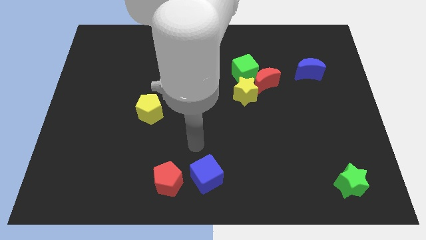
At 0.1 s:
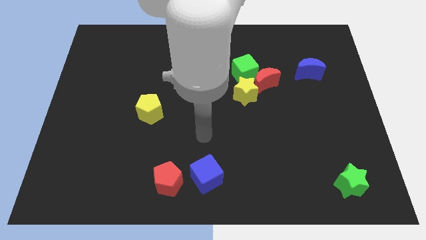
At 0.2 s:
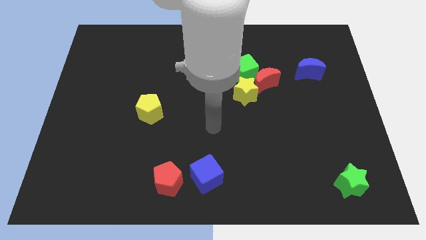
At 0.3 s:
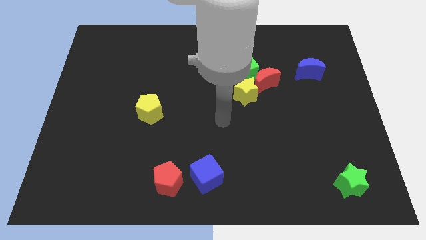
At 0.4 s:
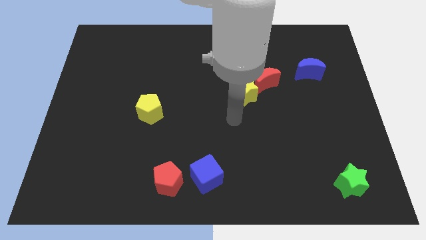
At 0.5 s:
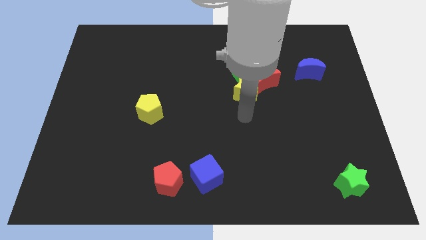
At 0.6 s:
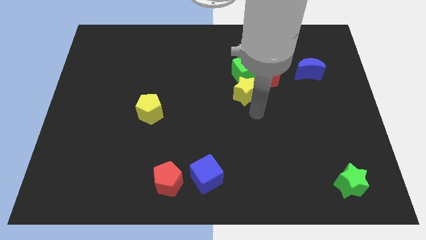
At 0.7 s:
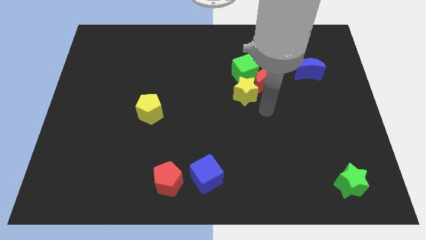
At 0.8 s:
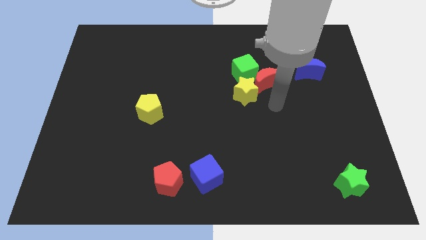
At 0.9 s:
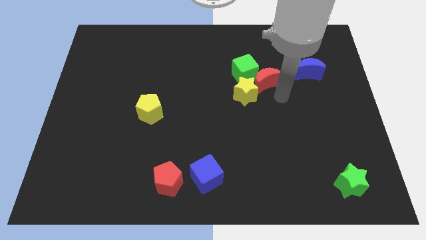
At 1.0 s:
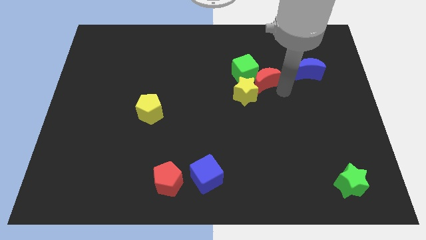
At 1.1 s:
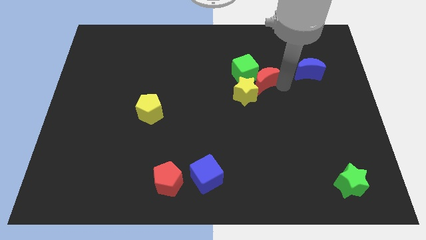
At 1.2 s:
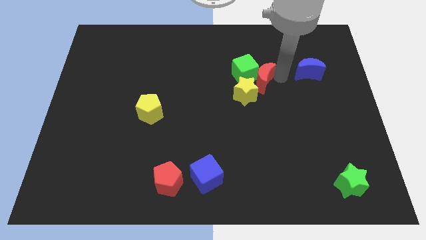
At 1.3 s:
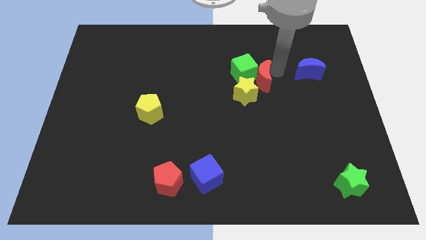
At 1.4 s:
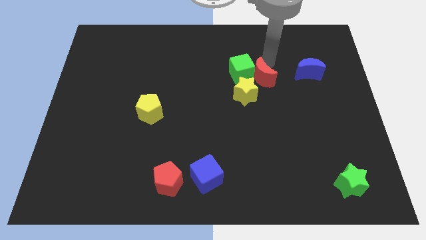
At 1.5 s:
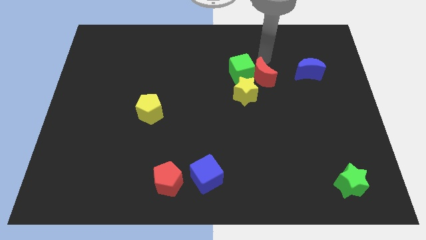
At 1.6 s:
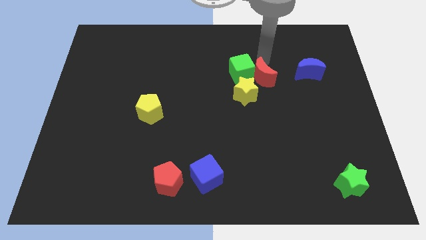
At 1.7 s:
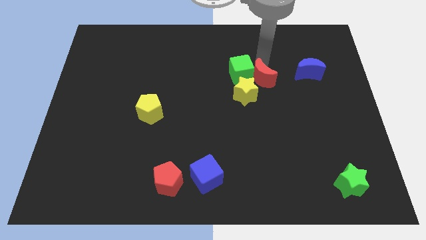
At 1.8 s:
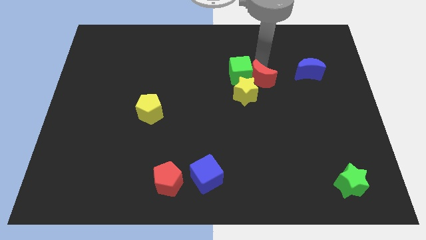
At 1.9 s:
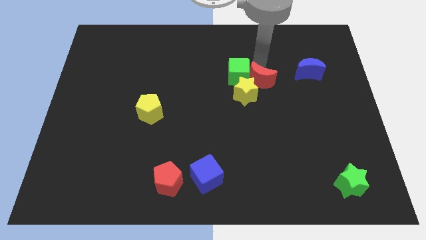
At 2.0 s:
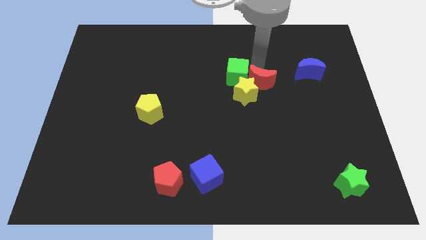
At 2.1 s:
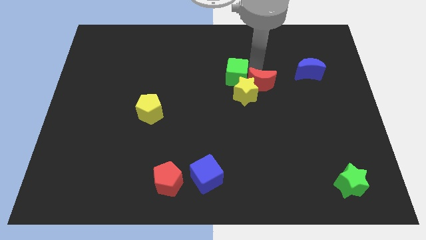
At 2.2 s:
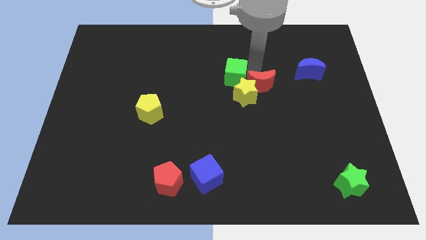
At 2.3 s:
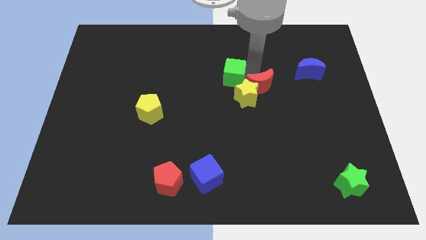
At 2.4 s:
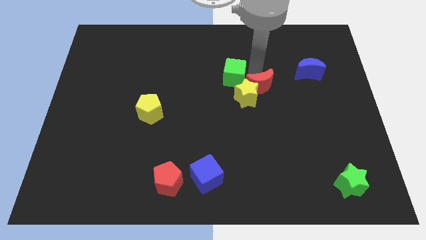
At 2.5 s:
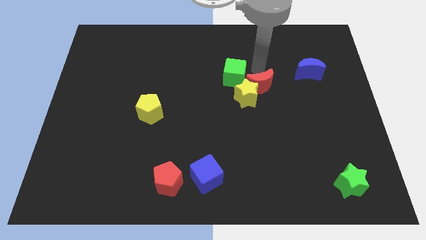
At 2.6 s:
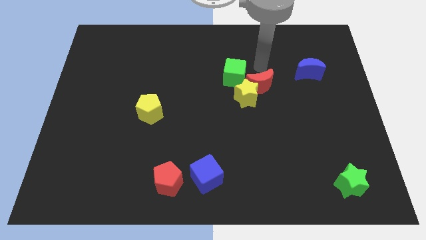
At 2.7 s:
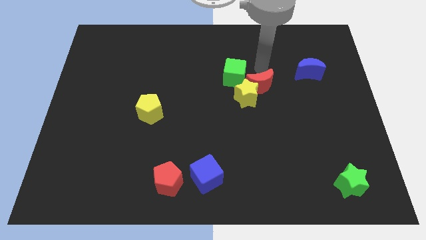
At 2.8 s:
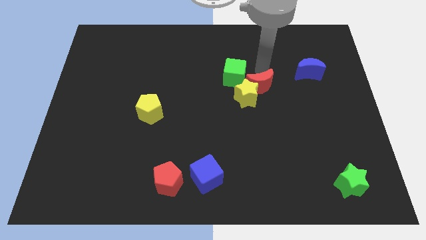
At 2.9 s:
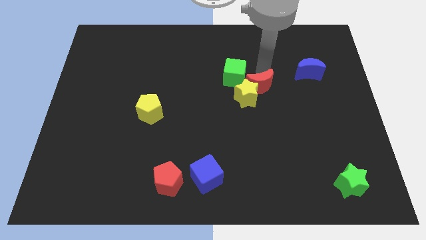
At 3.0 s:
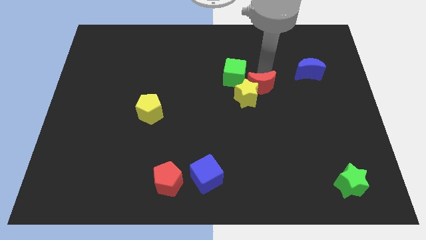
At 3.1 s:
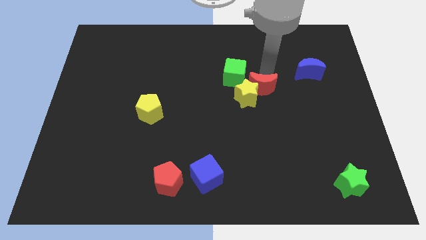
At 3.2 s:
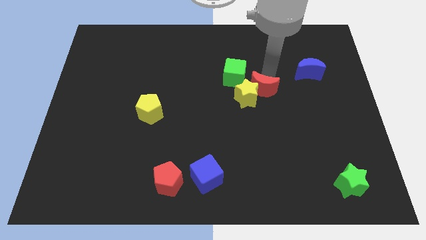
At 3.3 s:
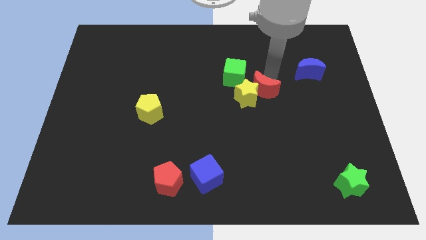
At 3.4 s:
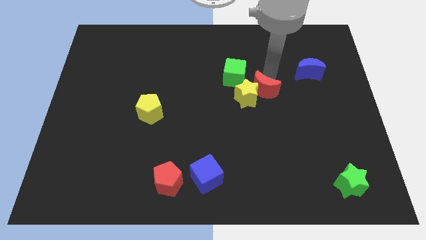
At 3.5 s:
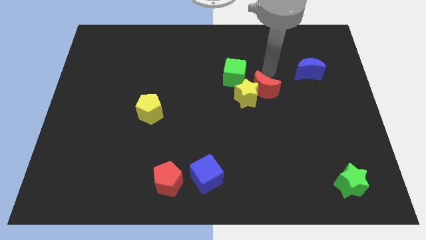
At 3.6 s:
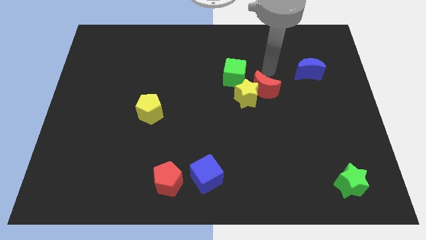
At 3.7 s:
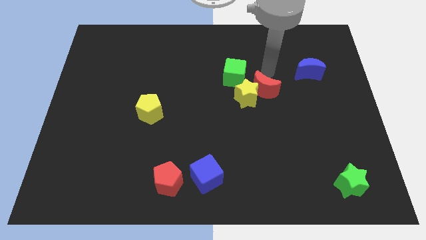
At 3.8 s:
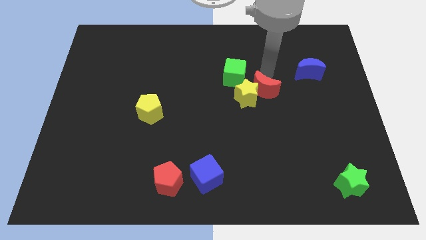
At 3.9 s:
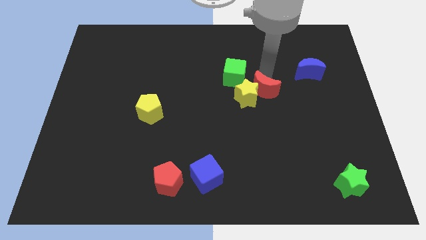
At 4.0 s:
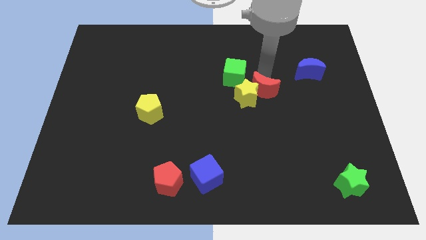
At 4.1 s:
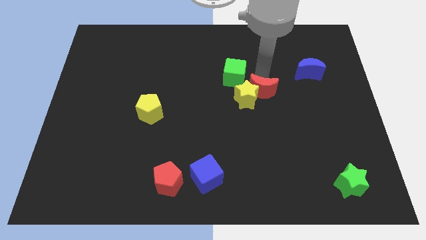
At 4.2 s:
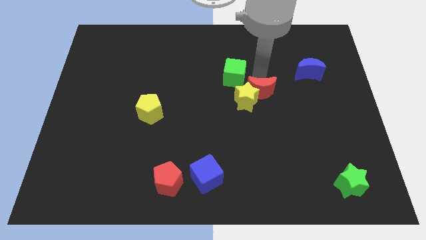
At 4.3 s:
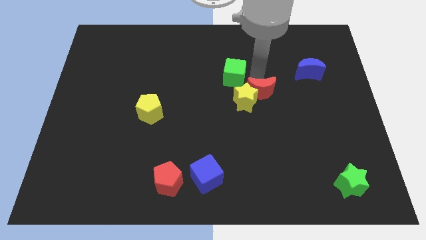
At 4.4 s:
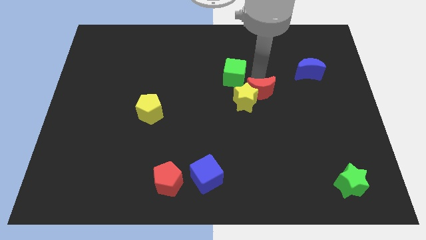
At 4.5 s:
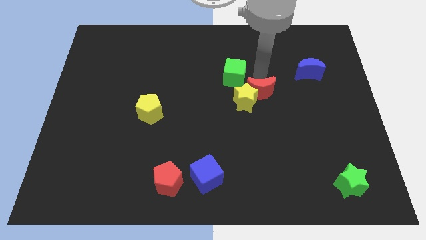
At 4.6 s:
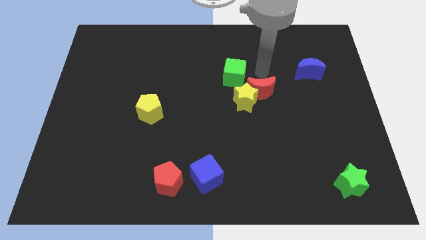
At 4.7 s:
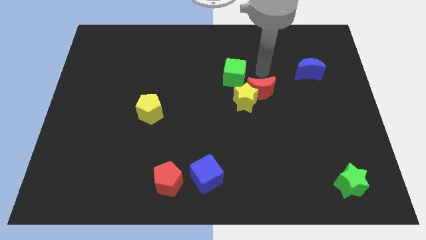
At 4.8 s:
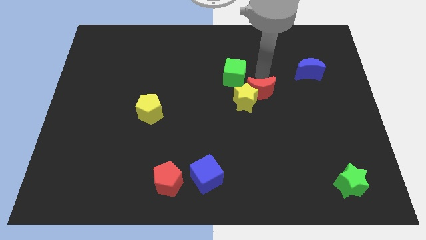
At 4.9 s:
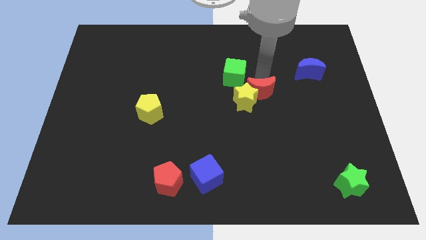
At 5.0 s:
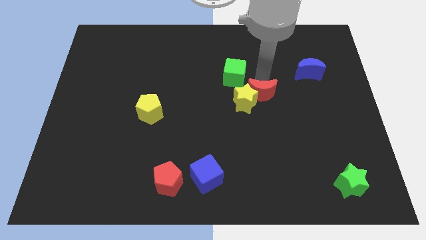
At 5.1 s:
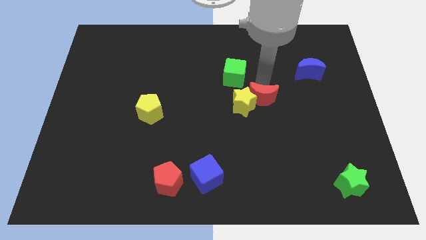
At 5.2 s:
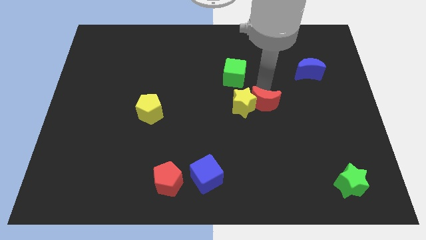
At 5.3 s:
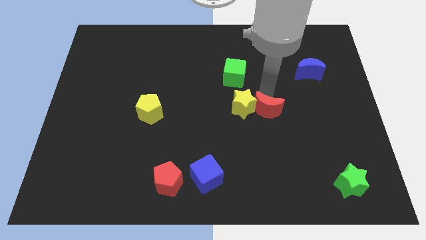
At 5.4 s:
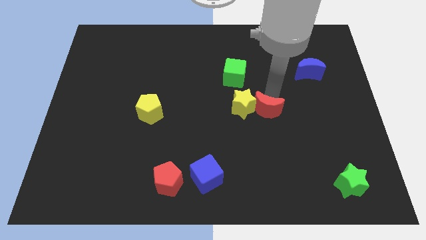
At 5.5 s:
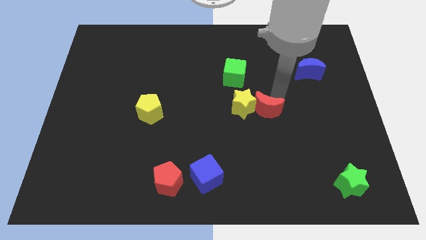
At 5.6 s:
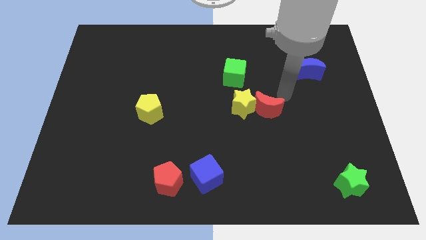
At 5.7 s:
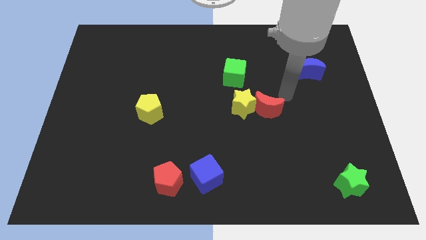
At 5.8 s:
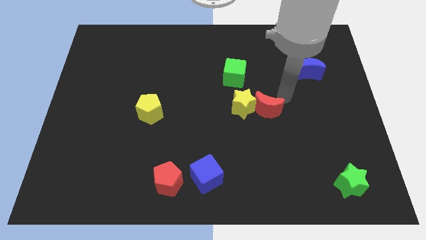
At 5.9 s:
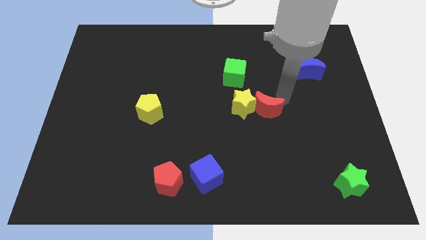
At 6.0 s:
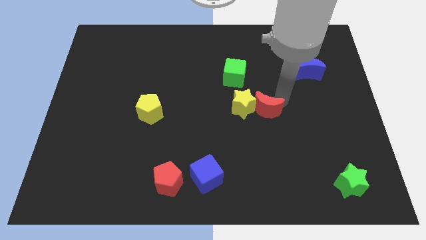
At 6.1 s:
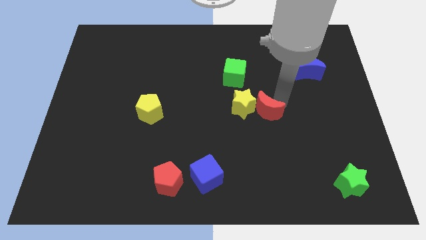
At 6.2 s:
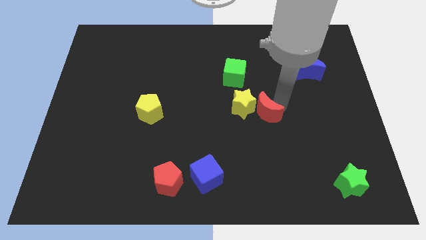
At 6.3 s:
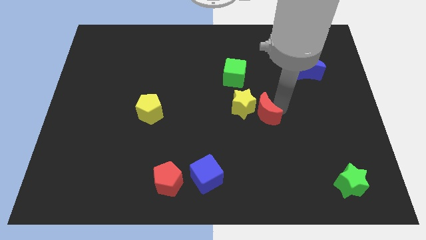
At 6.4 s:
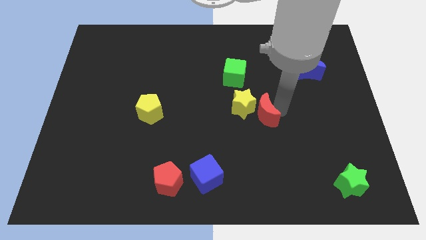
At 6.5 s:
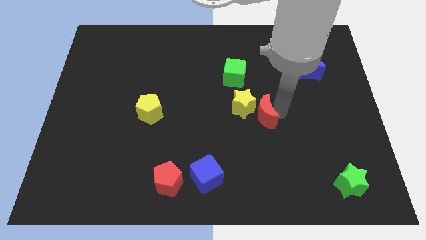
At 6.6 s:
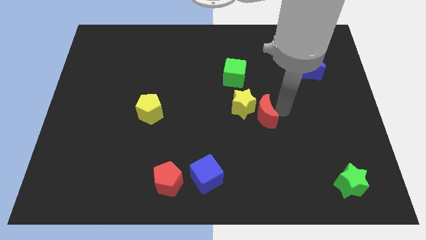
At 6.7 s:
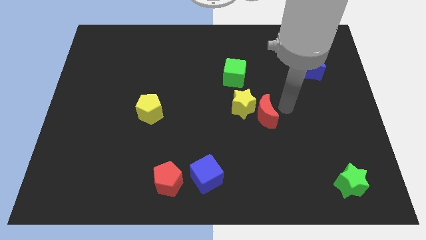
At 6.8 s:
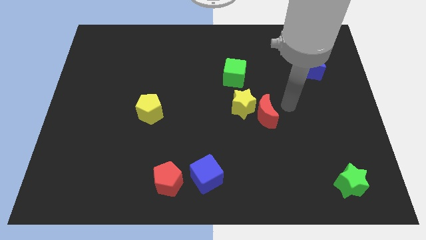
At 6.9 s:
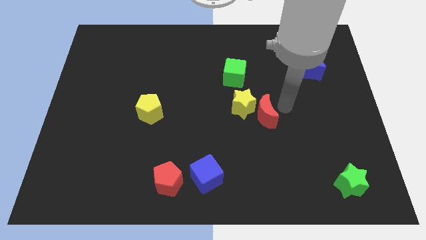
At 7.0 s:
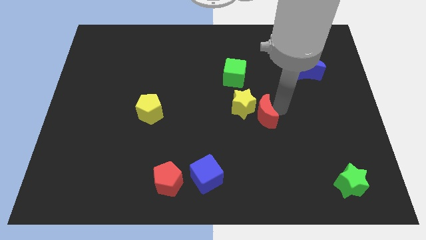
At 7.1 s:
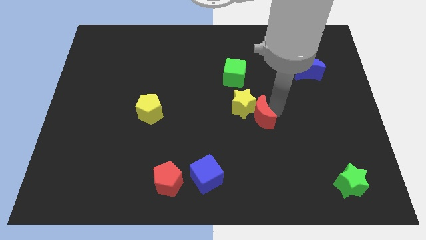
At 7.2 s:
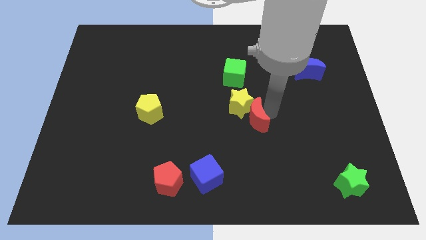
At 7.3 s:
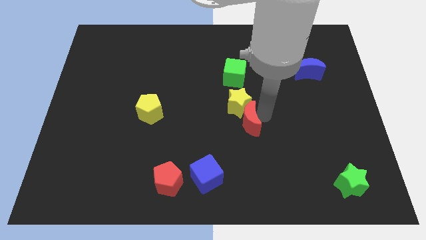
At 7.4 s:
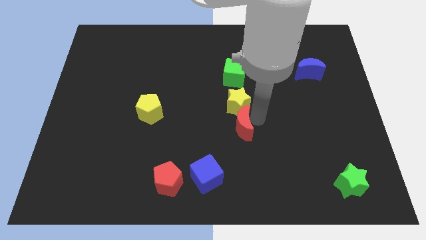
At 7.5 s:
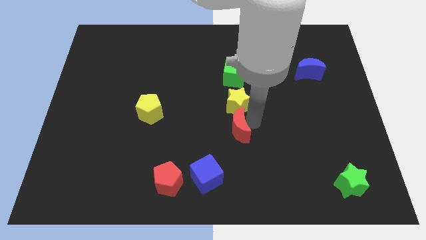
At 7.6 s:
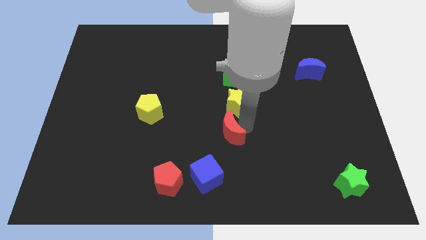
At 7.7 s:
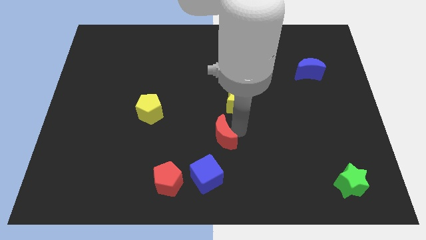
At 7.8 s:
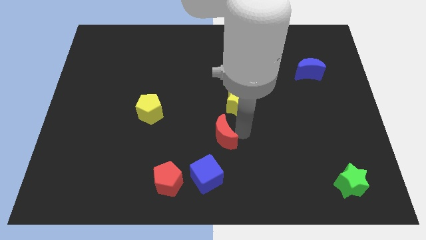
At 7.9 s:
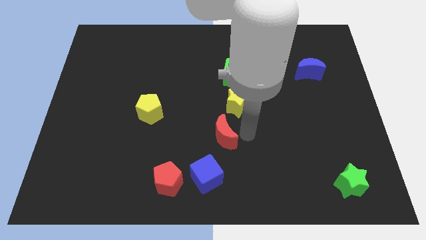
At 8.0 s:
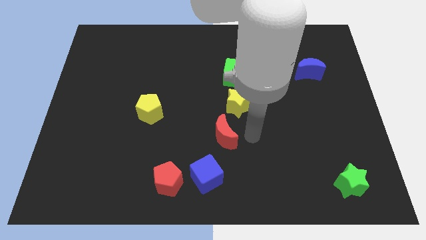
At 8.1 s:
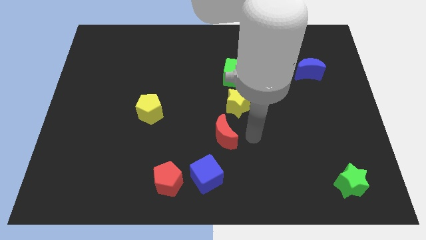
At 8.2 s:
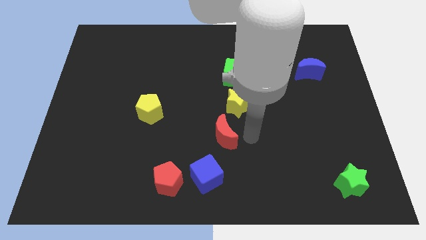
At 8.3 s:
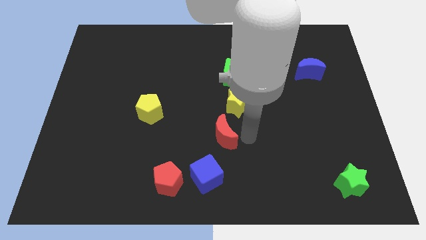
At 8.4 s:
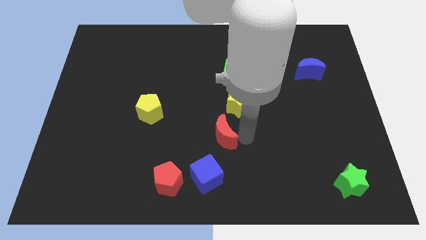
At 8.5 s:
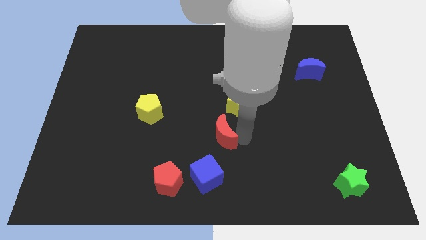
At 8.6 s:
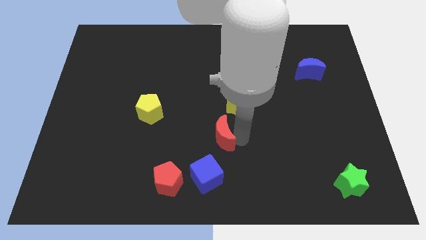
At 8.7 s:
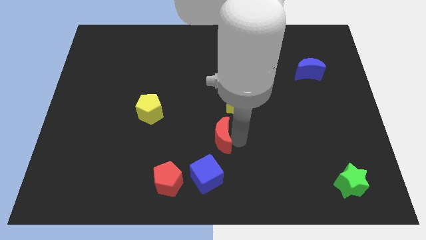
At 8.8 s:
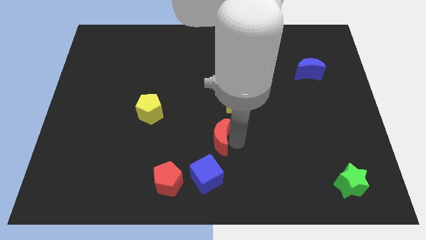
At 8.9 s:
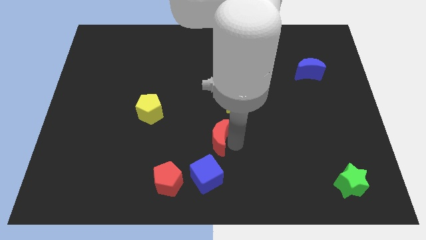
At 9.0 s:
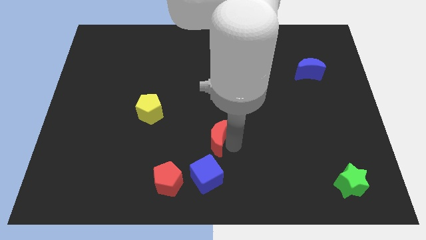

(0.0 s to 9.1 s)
move the red moon downwards and then to the left
